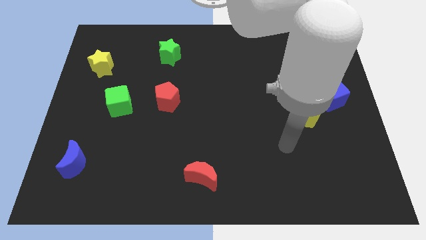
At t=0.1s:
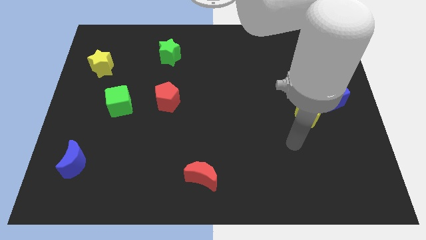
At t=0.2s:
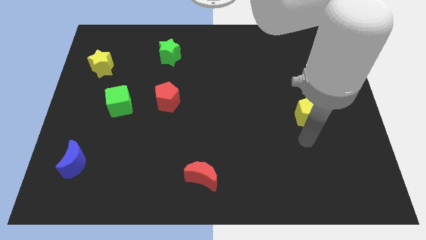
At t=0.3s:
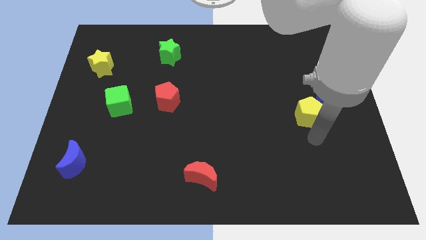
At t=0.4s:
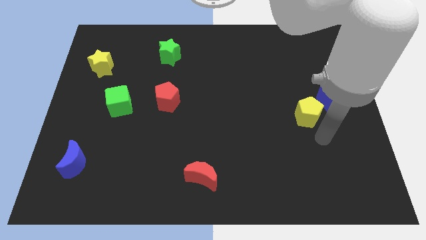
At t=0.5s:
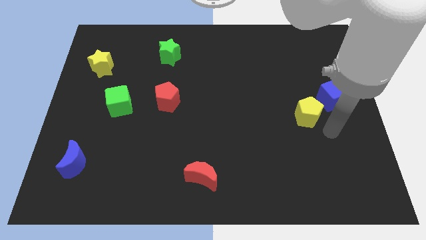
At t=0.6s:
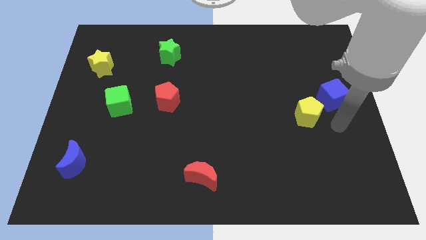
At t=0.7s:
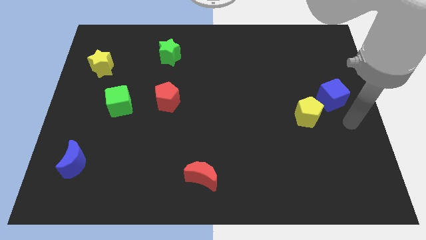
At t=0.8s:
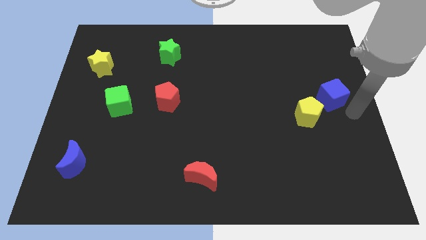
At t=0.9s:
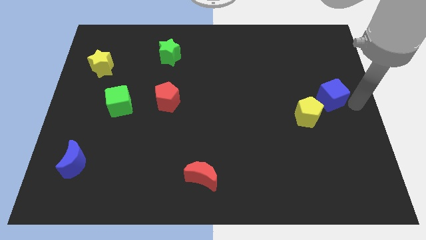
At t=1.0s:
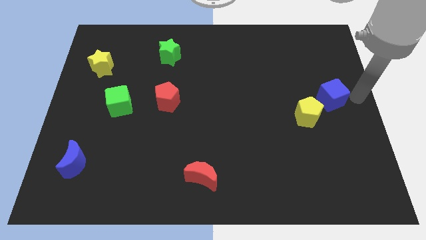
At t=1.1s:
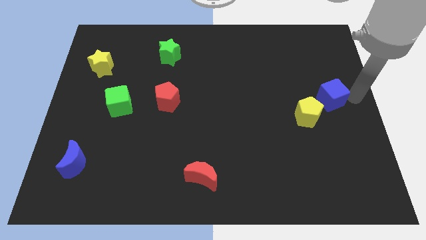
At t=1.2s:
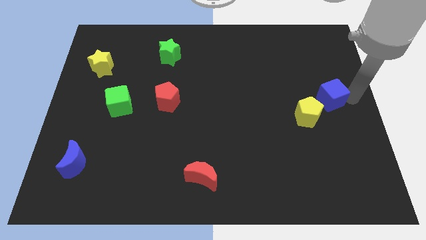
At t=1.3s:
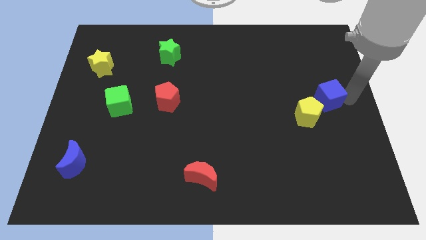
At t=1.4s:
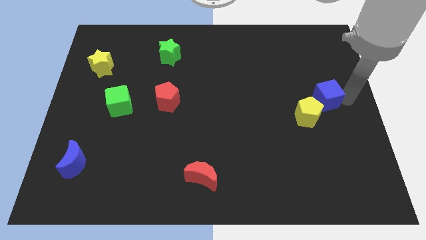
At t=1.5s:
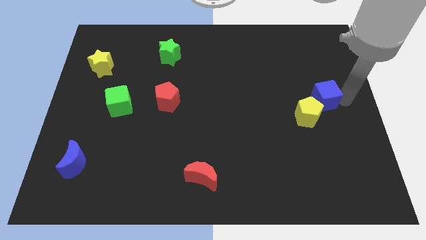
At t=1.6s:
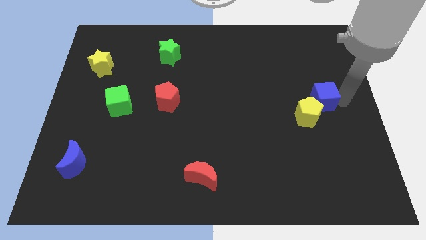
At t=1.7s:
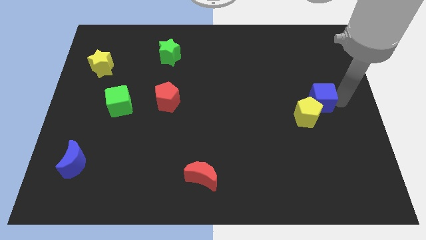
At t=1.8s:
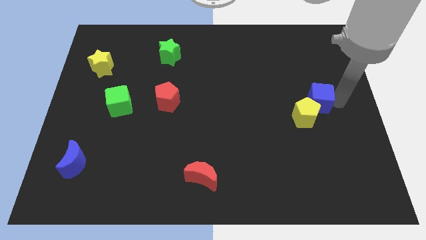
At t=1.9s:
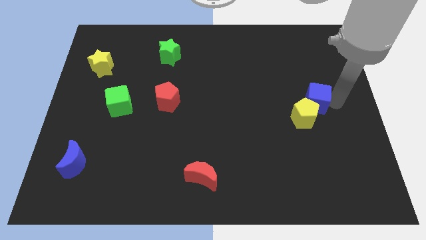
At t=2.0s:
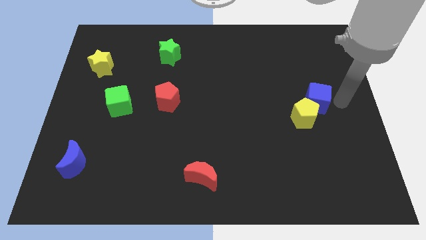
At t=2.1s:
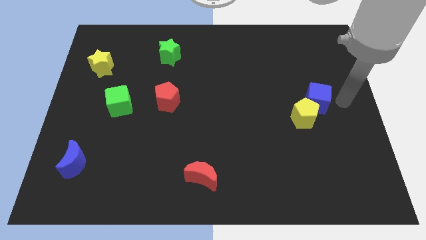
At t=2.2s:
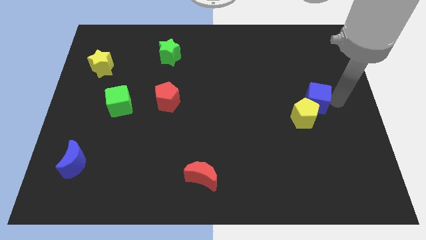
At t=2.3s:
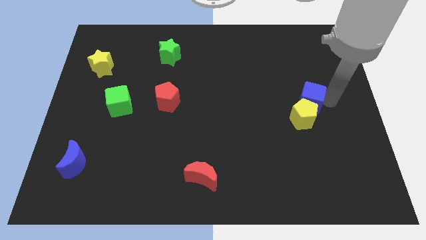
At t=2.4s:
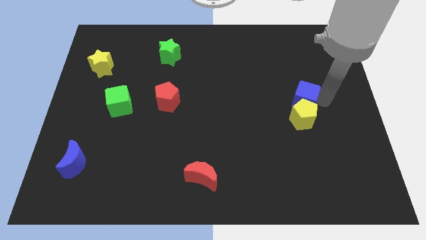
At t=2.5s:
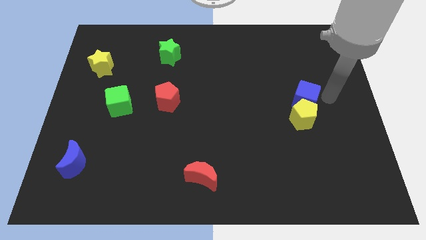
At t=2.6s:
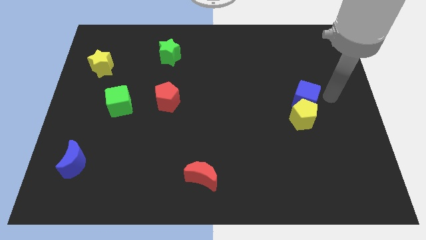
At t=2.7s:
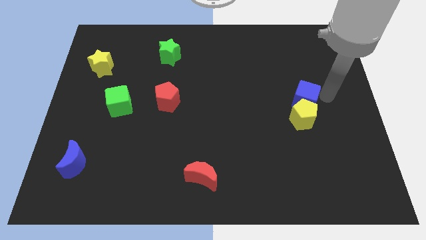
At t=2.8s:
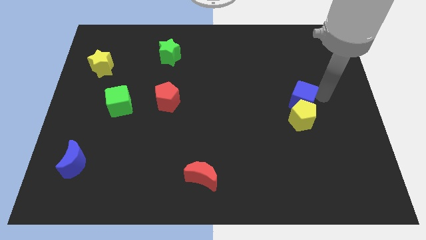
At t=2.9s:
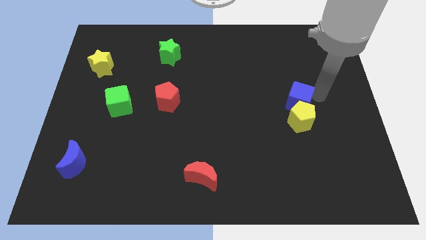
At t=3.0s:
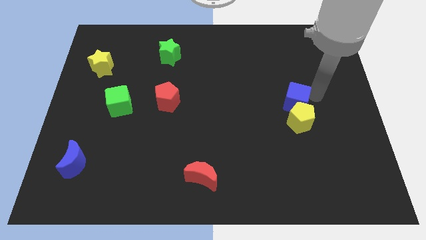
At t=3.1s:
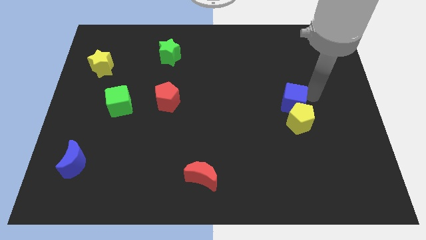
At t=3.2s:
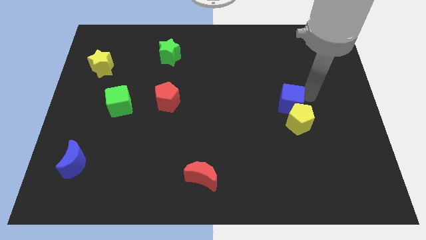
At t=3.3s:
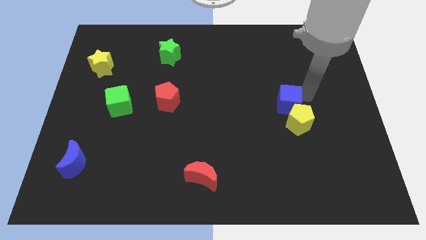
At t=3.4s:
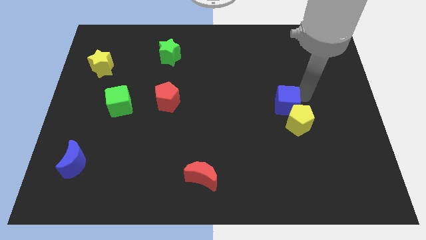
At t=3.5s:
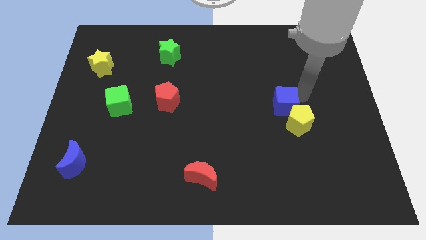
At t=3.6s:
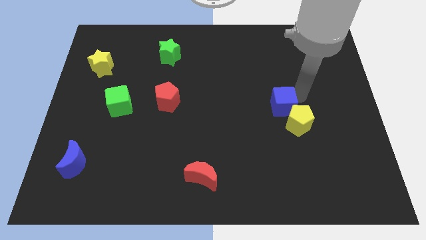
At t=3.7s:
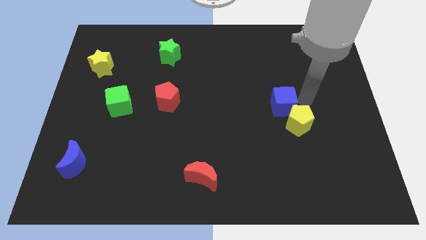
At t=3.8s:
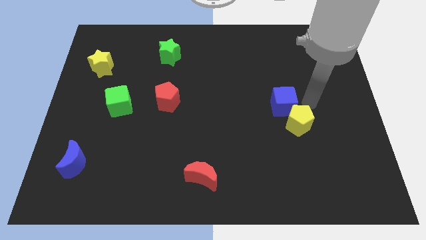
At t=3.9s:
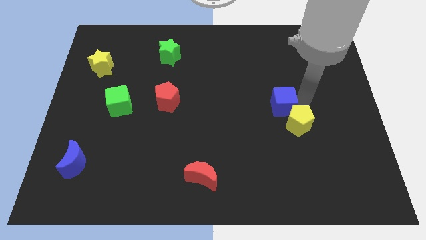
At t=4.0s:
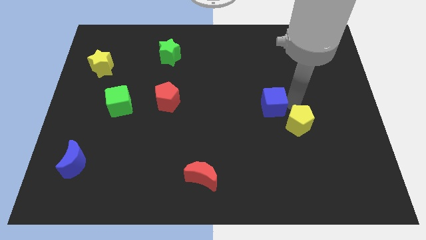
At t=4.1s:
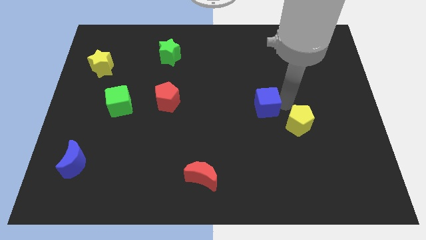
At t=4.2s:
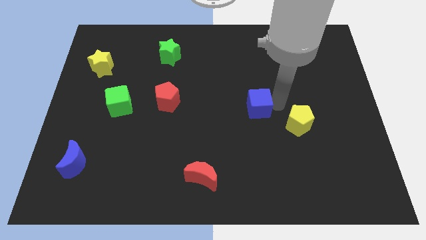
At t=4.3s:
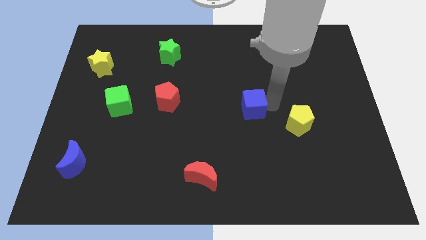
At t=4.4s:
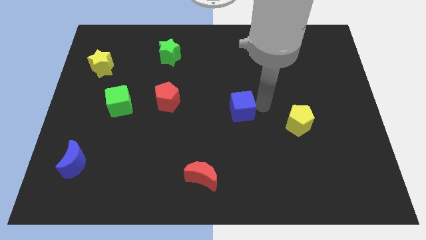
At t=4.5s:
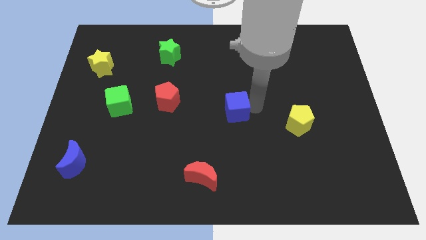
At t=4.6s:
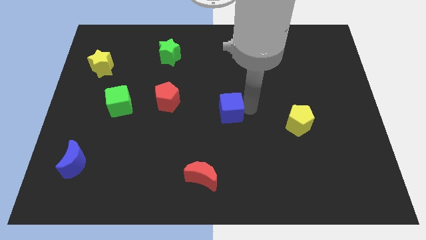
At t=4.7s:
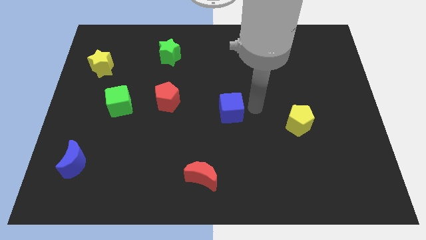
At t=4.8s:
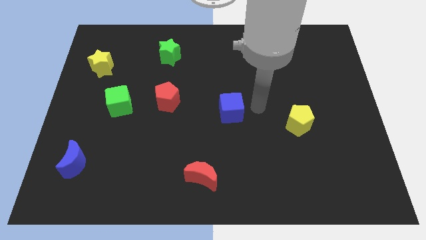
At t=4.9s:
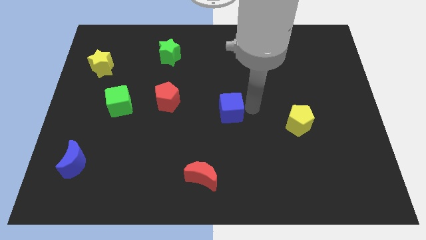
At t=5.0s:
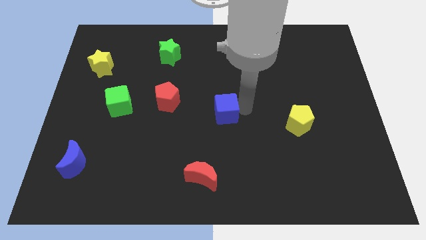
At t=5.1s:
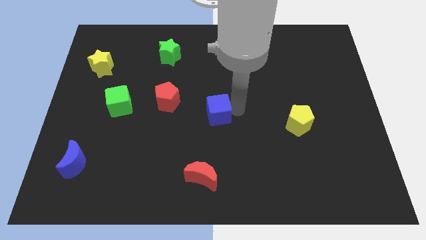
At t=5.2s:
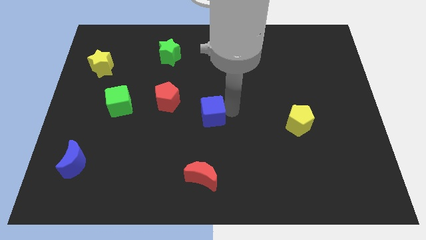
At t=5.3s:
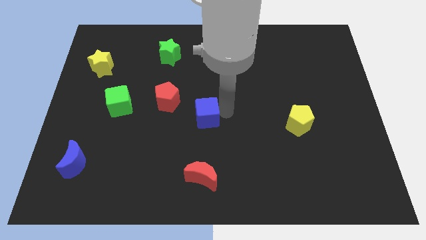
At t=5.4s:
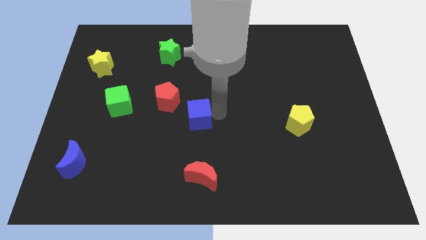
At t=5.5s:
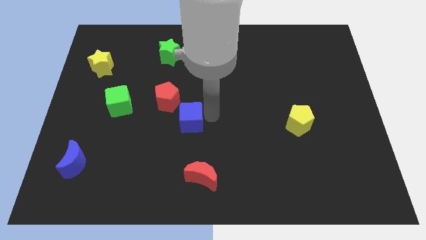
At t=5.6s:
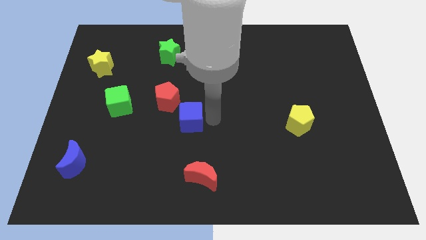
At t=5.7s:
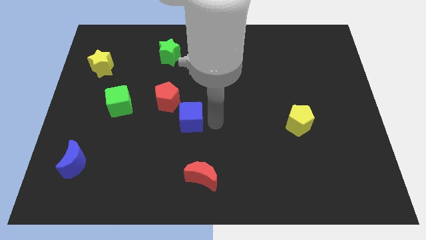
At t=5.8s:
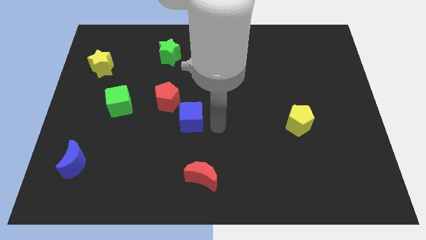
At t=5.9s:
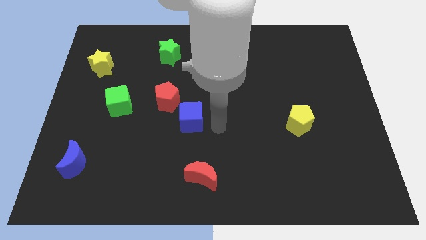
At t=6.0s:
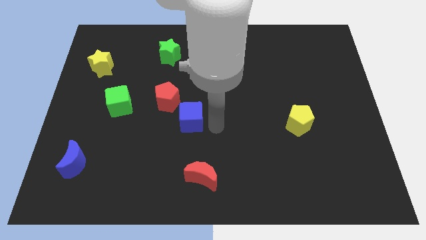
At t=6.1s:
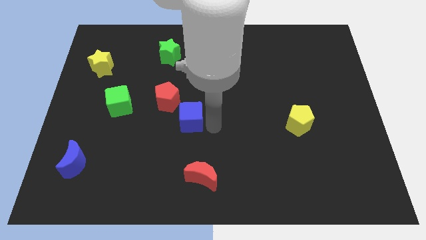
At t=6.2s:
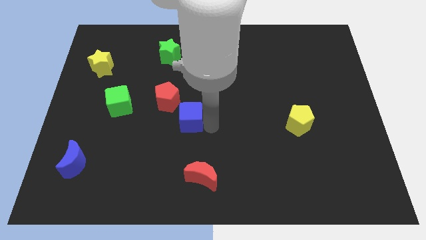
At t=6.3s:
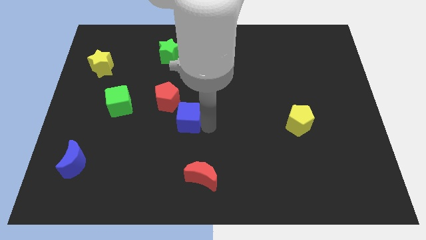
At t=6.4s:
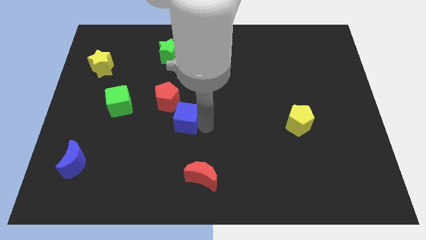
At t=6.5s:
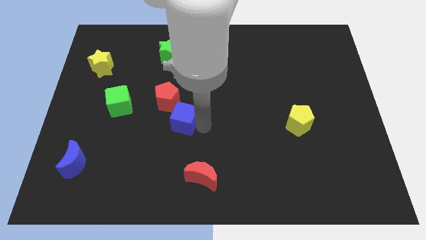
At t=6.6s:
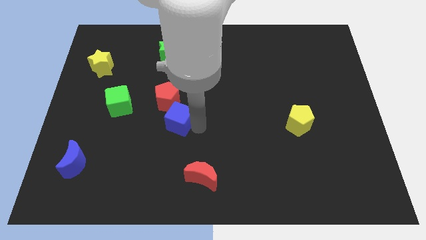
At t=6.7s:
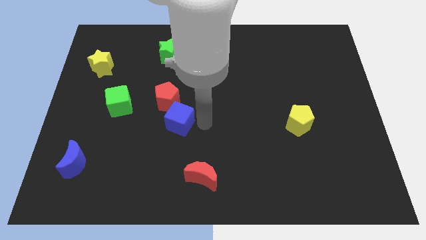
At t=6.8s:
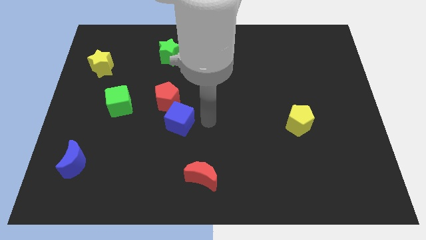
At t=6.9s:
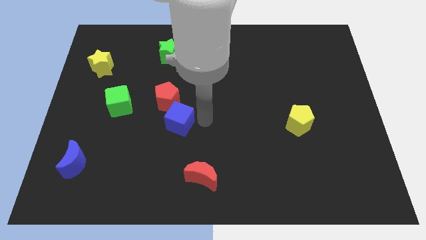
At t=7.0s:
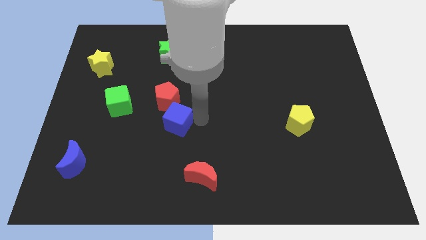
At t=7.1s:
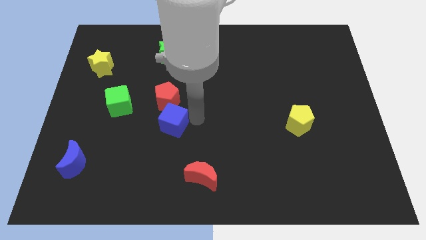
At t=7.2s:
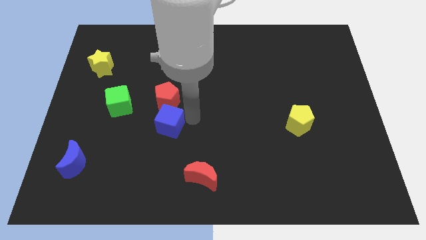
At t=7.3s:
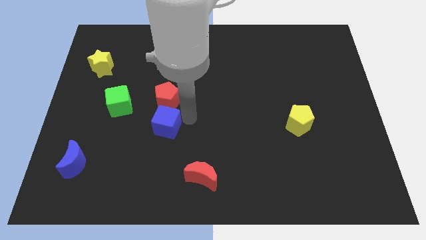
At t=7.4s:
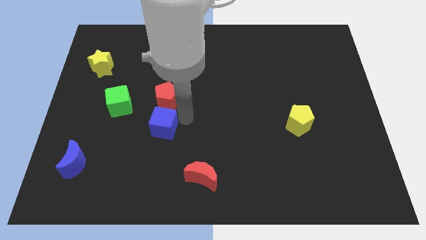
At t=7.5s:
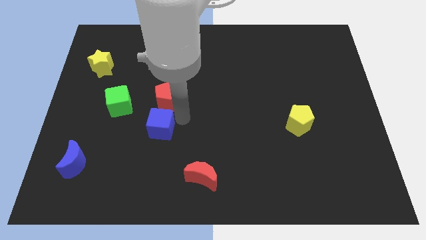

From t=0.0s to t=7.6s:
put the blue cube to the bottom right side of the green cube

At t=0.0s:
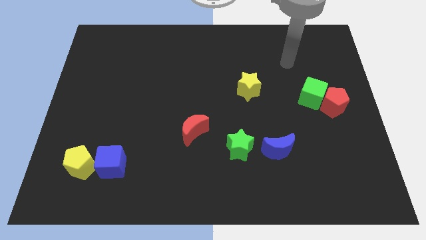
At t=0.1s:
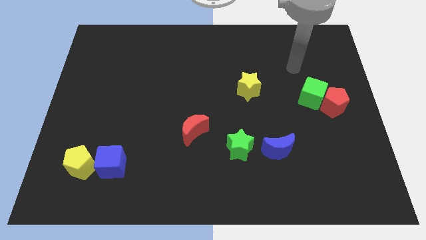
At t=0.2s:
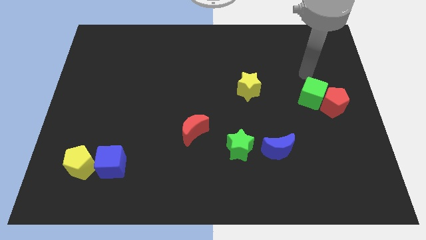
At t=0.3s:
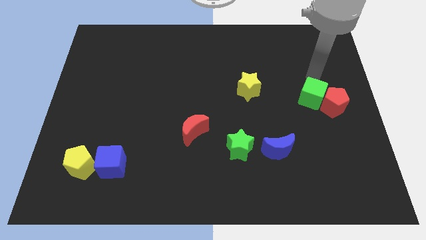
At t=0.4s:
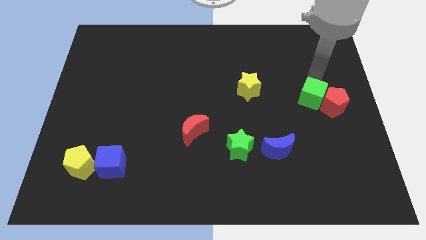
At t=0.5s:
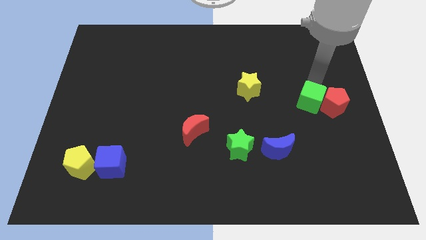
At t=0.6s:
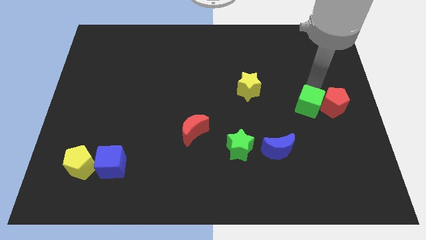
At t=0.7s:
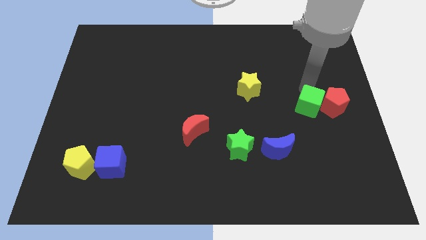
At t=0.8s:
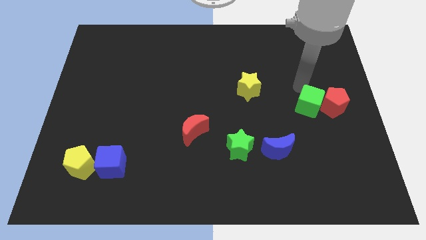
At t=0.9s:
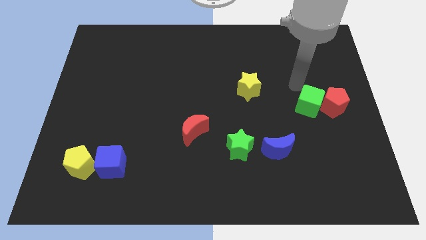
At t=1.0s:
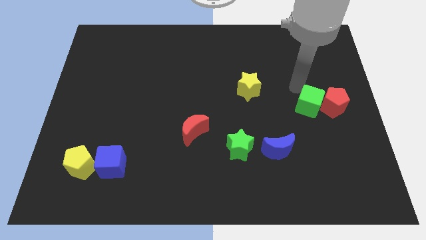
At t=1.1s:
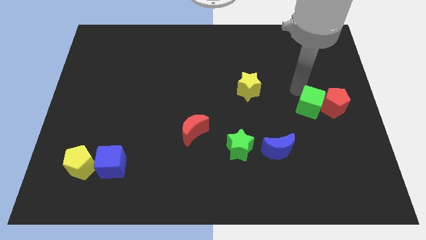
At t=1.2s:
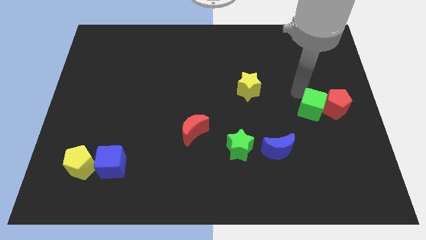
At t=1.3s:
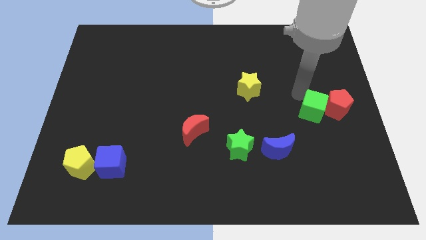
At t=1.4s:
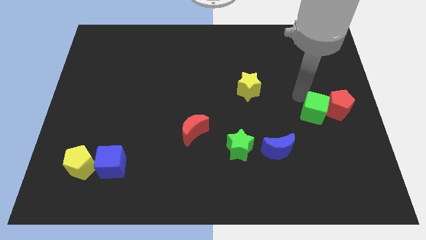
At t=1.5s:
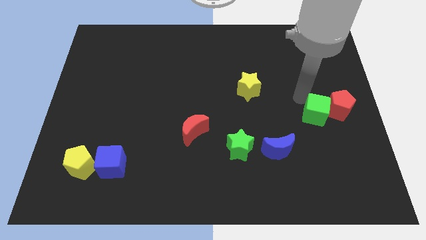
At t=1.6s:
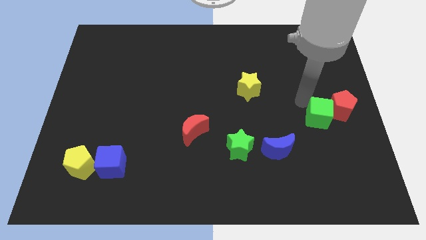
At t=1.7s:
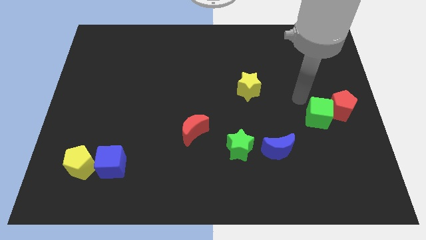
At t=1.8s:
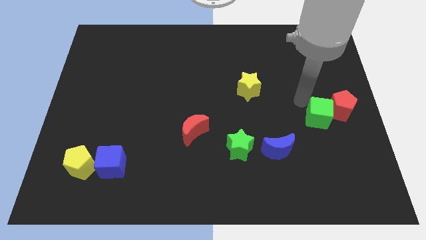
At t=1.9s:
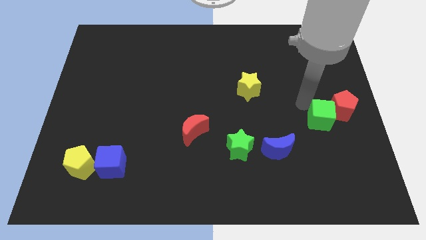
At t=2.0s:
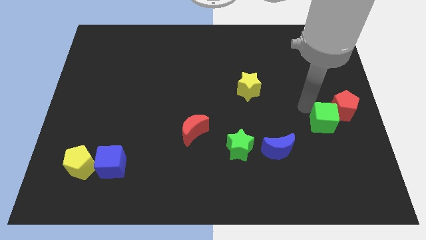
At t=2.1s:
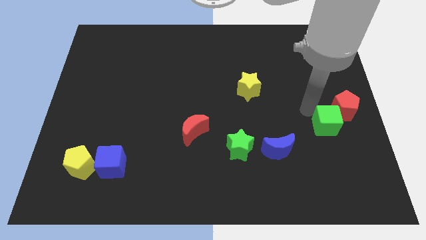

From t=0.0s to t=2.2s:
slide the green cube to the bottom of the red pentagon
